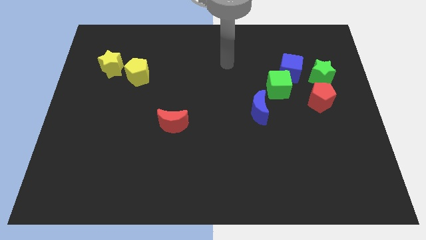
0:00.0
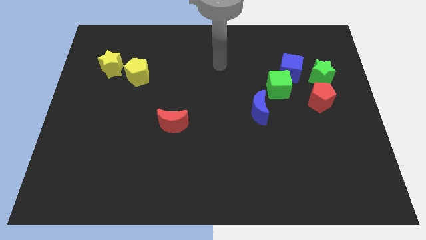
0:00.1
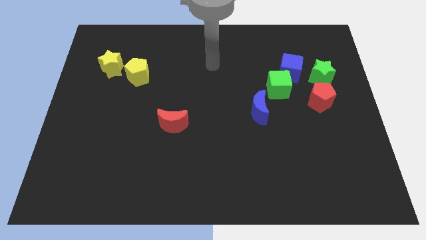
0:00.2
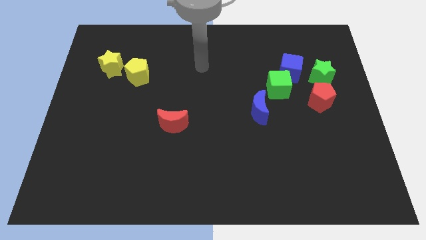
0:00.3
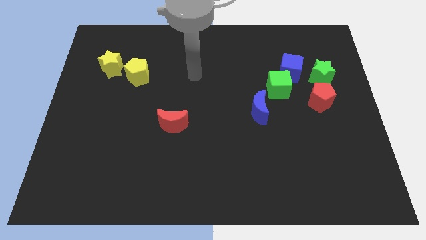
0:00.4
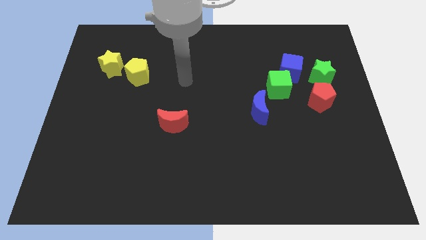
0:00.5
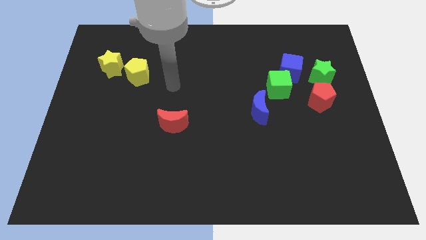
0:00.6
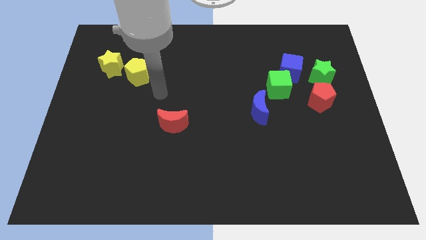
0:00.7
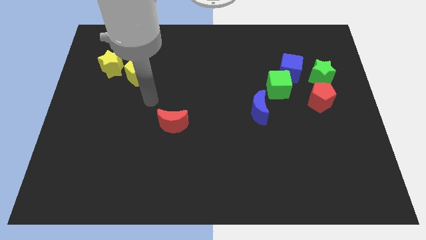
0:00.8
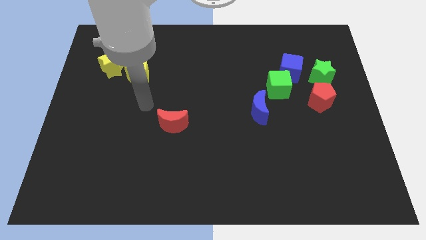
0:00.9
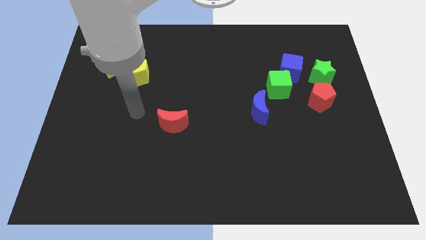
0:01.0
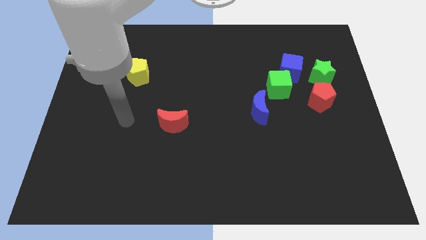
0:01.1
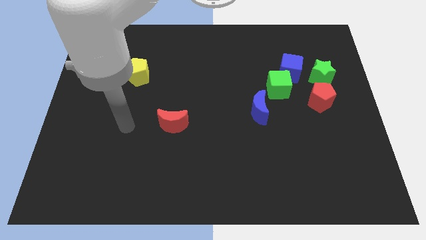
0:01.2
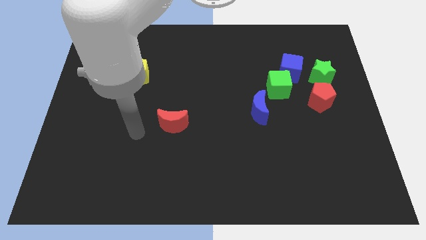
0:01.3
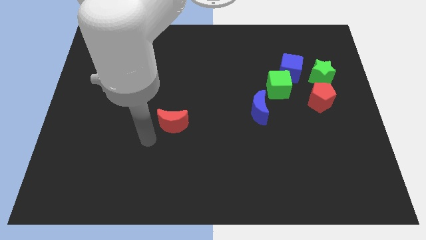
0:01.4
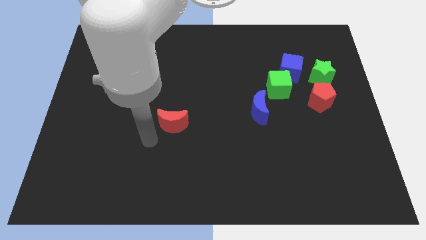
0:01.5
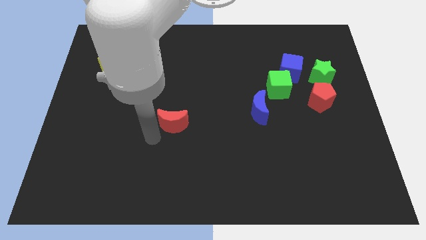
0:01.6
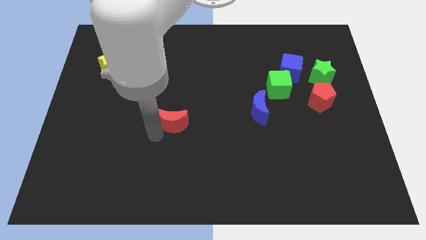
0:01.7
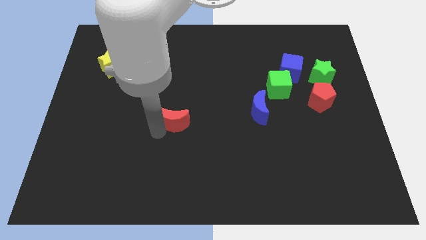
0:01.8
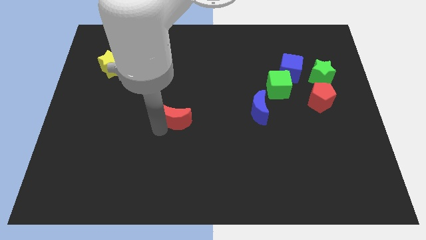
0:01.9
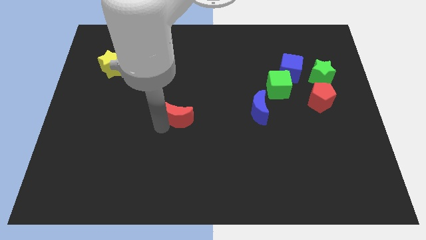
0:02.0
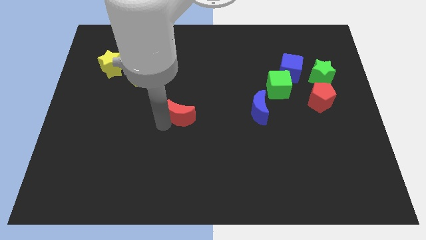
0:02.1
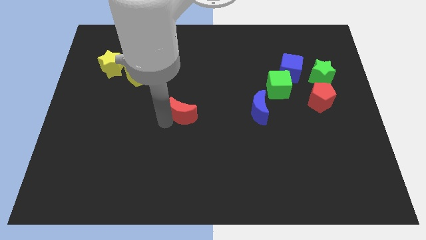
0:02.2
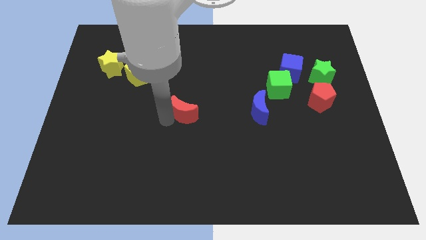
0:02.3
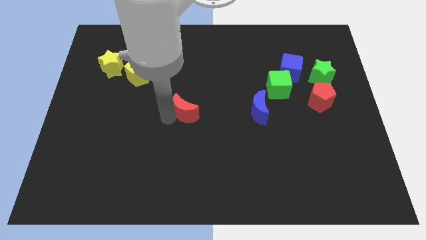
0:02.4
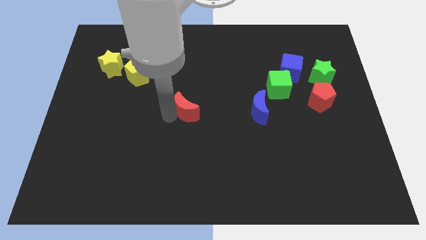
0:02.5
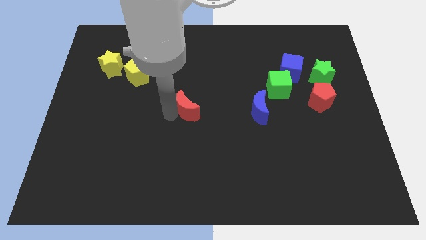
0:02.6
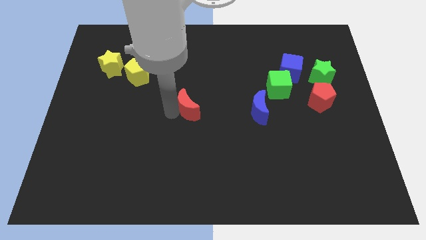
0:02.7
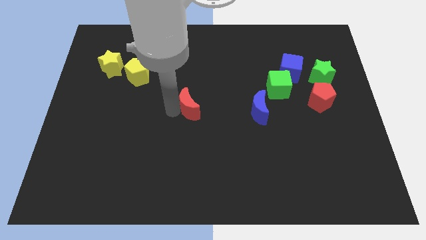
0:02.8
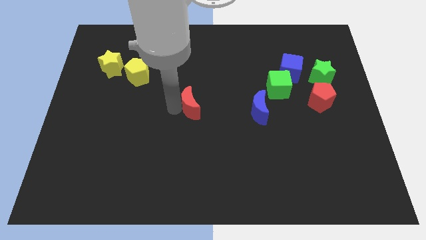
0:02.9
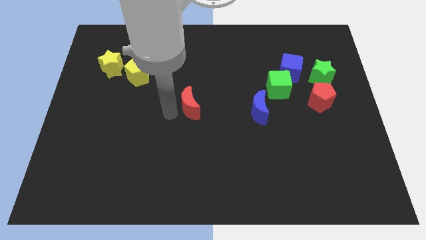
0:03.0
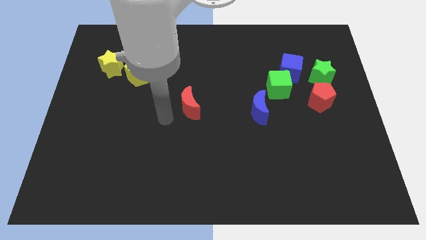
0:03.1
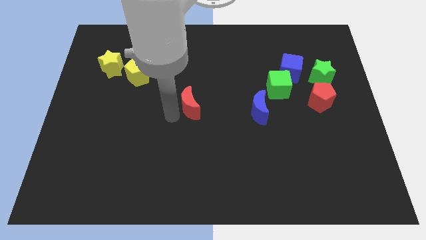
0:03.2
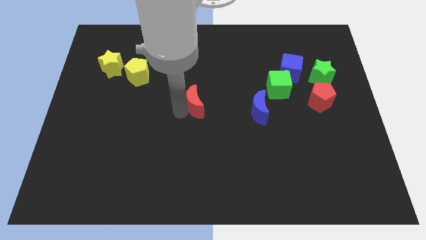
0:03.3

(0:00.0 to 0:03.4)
slightly slide the red moon diagonally up and to the right

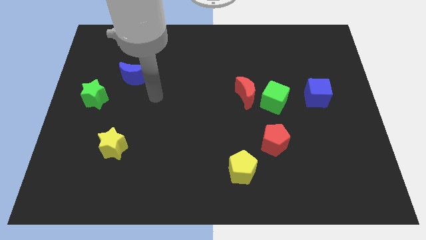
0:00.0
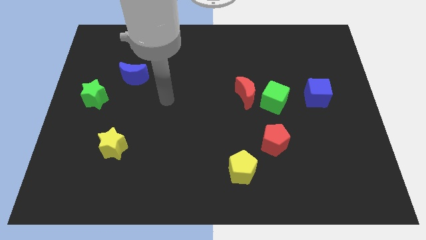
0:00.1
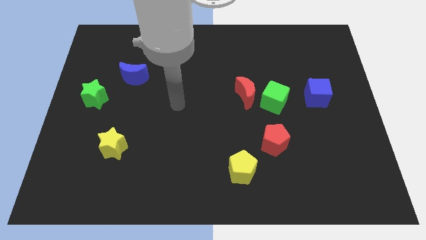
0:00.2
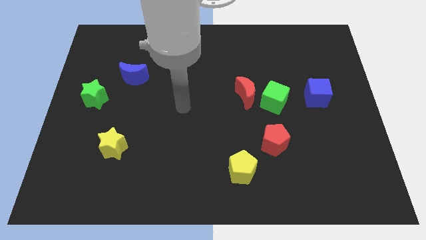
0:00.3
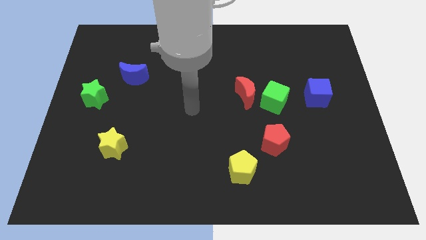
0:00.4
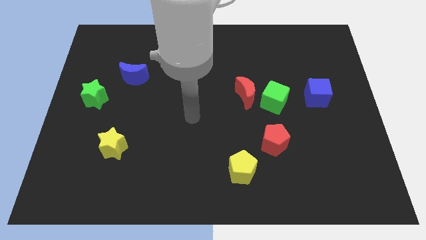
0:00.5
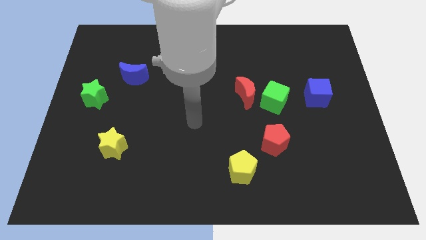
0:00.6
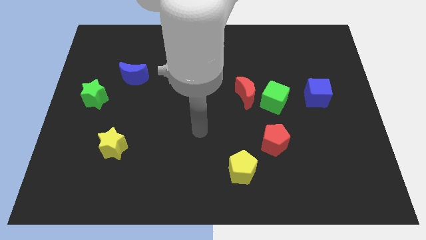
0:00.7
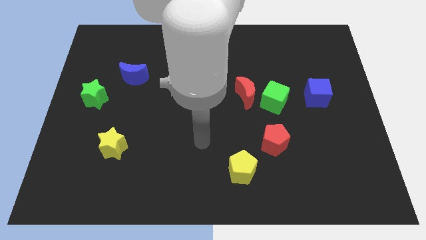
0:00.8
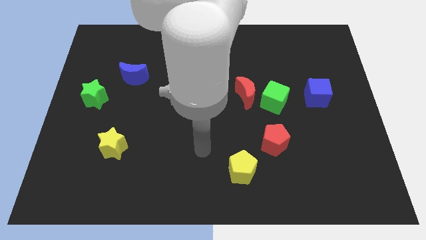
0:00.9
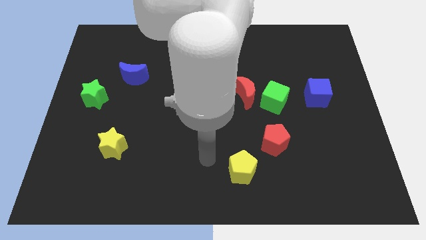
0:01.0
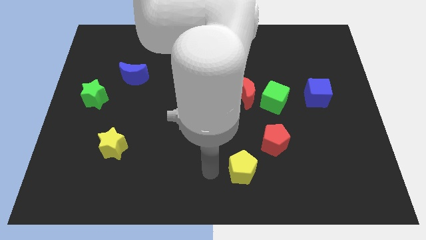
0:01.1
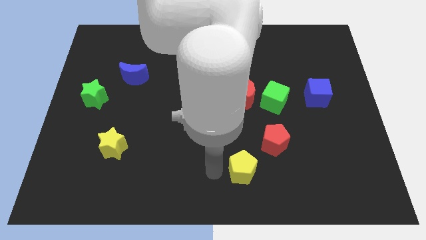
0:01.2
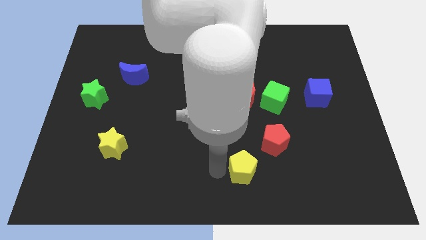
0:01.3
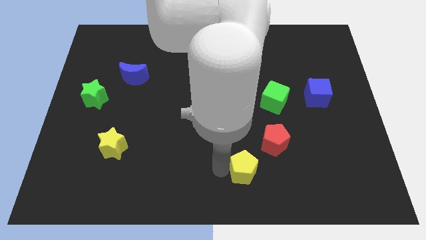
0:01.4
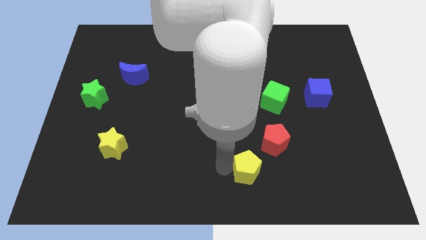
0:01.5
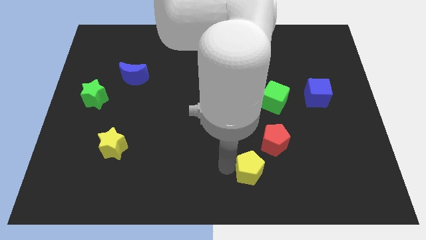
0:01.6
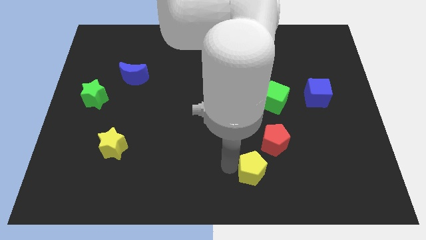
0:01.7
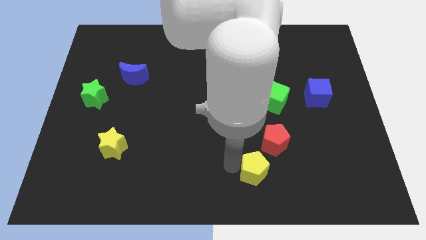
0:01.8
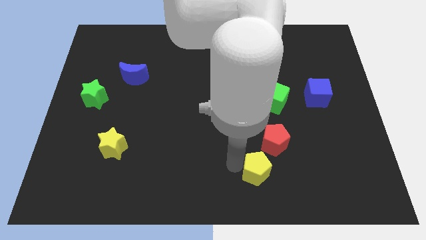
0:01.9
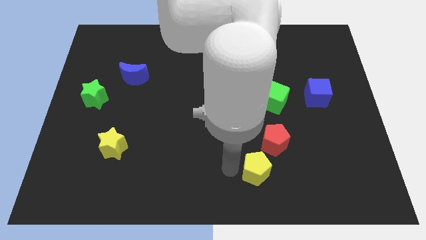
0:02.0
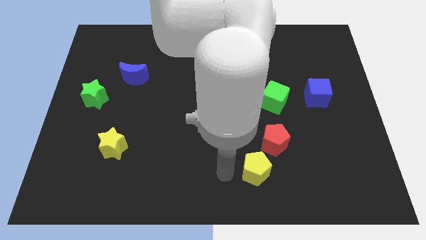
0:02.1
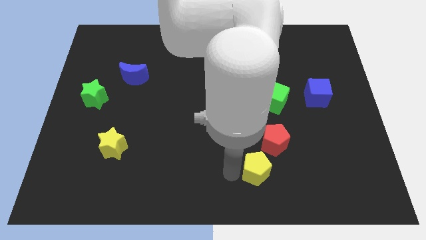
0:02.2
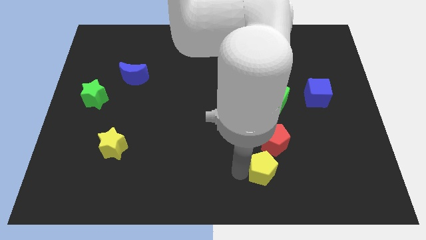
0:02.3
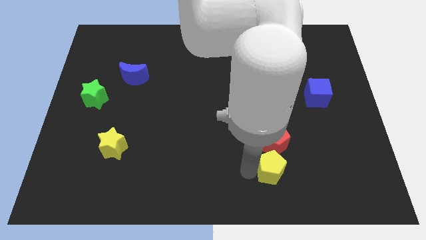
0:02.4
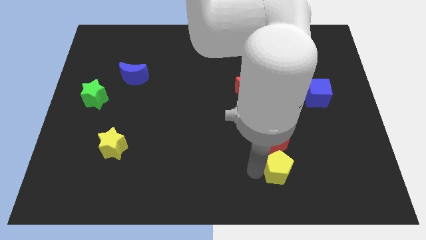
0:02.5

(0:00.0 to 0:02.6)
slightly slide the yellow pentagon right

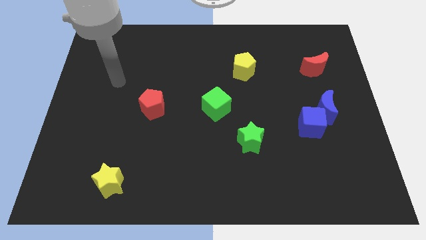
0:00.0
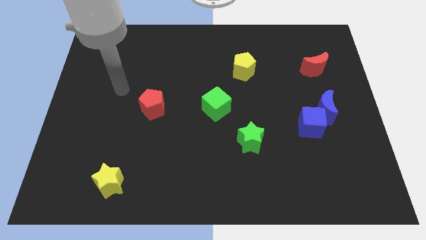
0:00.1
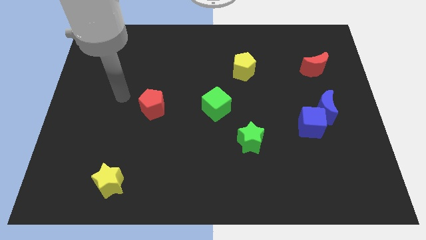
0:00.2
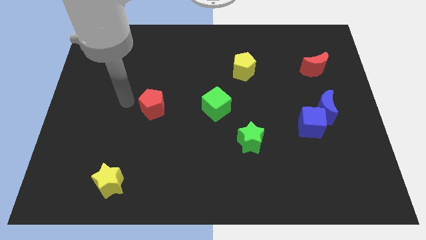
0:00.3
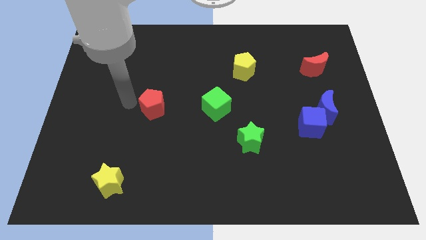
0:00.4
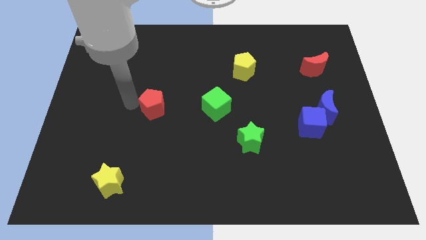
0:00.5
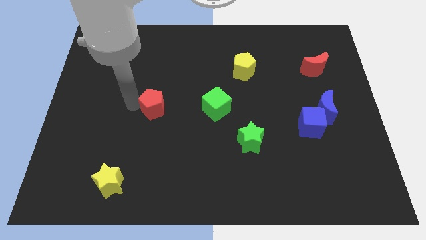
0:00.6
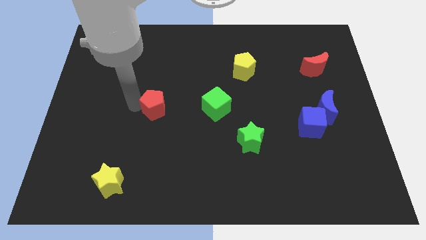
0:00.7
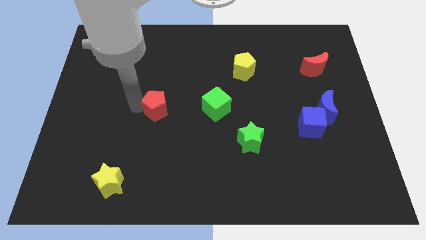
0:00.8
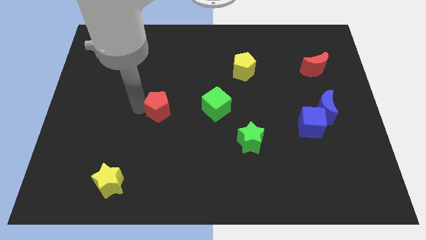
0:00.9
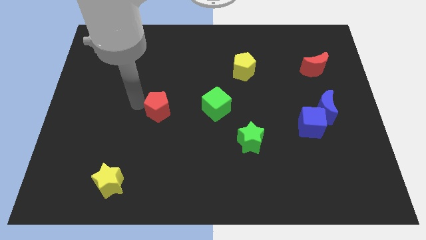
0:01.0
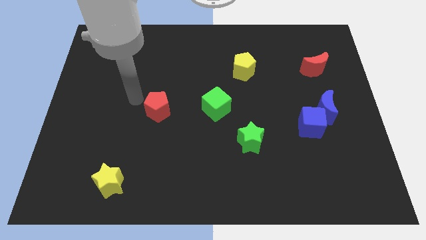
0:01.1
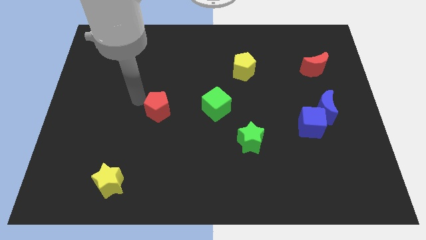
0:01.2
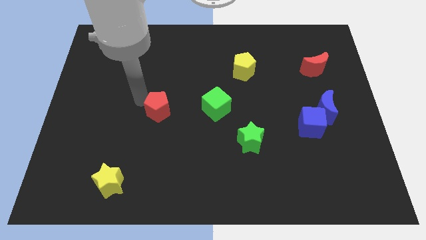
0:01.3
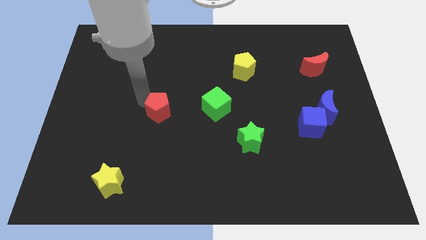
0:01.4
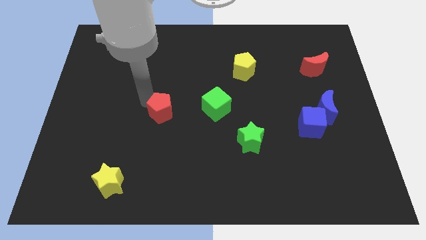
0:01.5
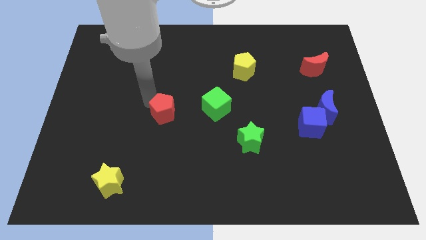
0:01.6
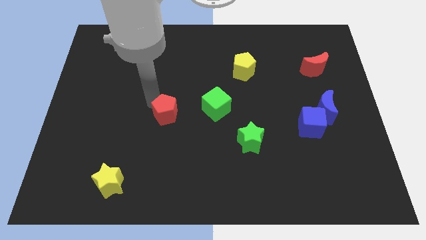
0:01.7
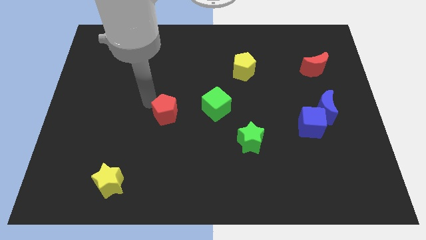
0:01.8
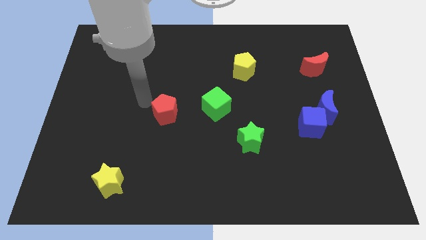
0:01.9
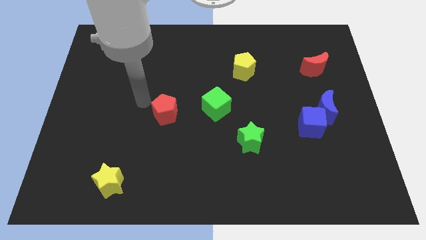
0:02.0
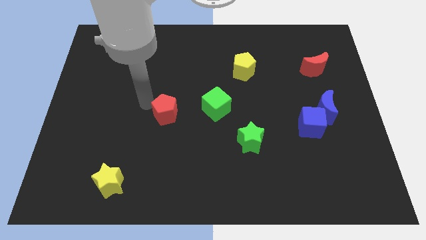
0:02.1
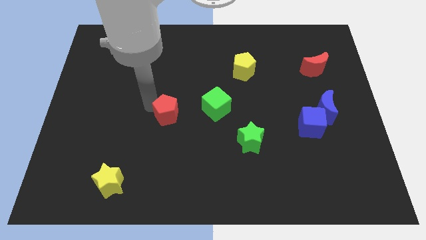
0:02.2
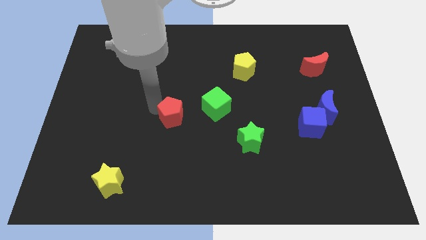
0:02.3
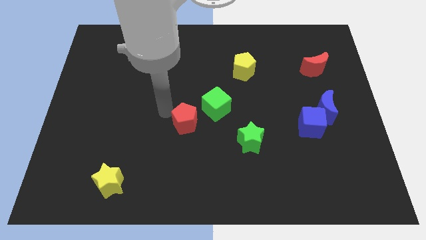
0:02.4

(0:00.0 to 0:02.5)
slide the red pentagon somewhat down and then to the right
